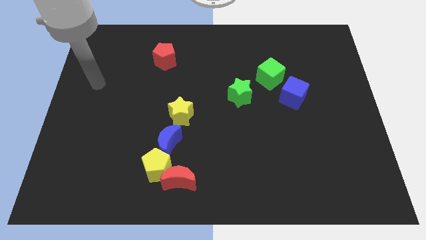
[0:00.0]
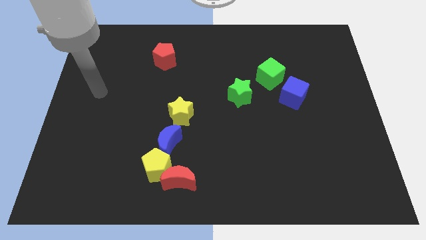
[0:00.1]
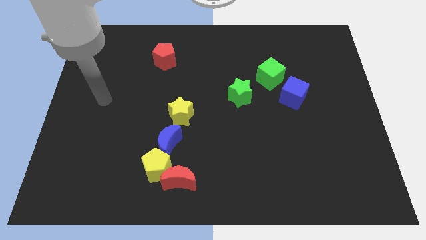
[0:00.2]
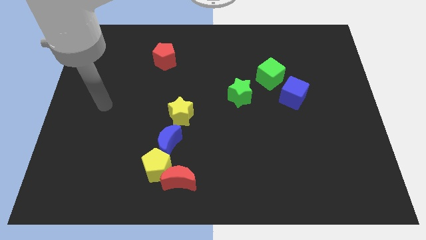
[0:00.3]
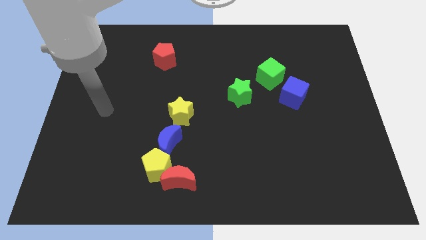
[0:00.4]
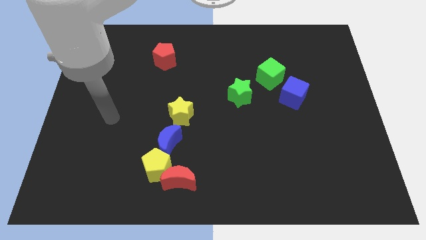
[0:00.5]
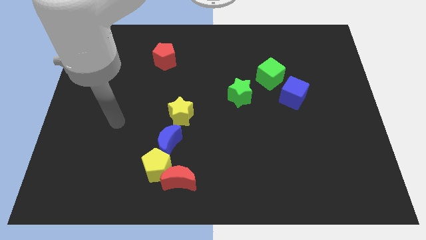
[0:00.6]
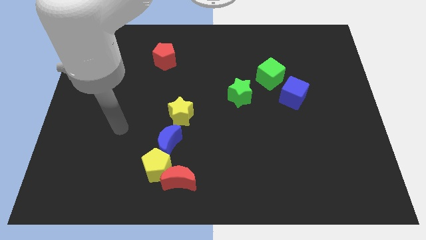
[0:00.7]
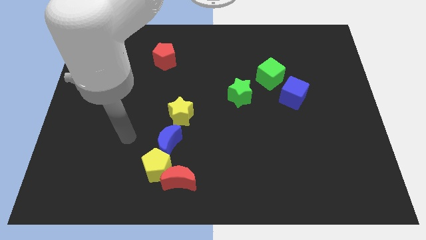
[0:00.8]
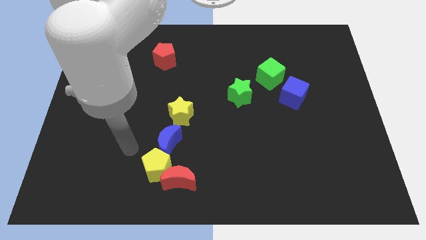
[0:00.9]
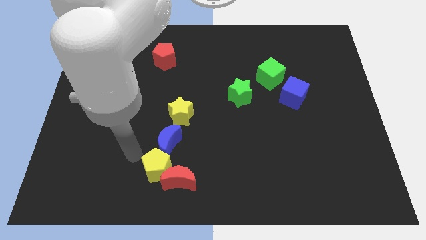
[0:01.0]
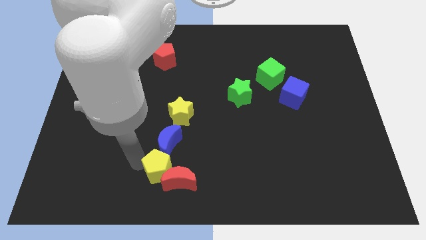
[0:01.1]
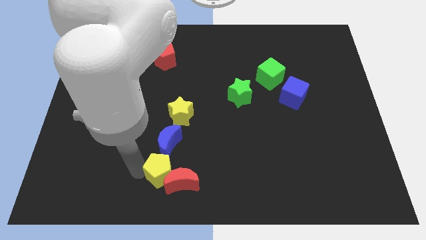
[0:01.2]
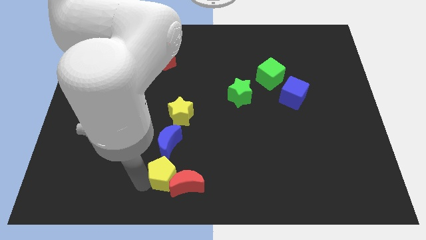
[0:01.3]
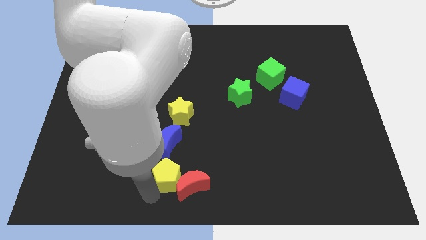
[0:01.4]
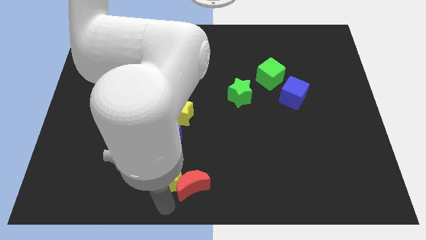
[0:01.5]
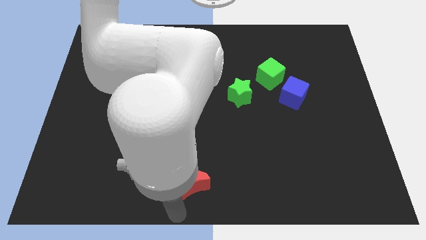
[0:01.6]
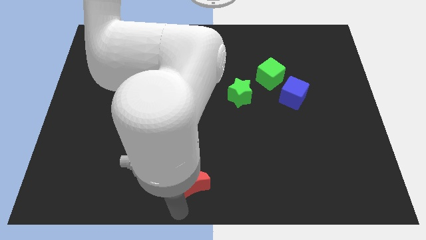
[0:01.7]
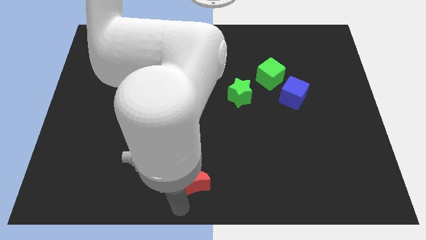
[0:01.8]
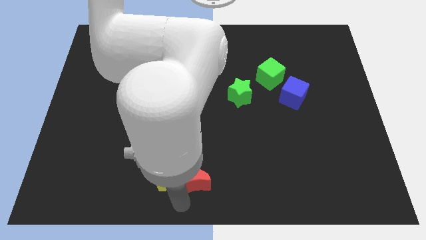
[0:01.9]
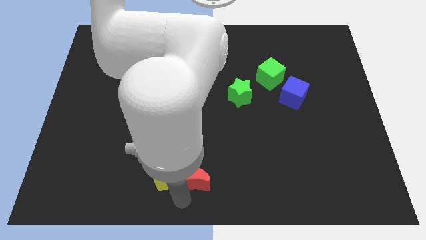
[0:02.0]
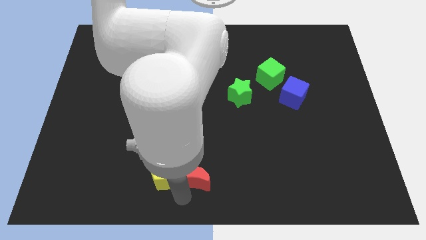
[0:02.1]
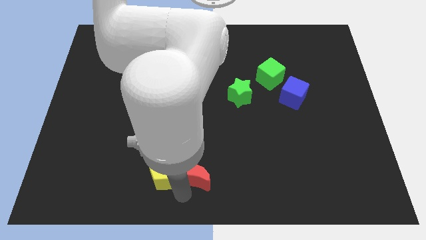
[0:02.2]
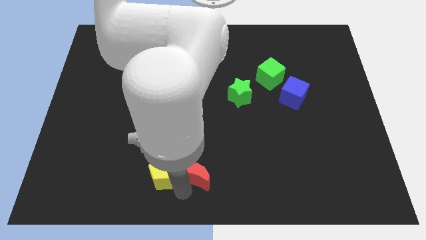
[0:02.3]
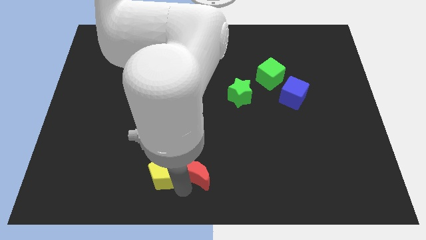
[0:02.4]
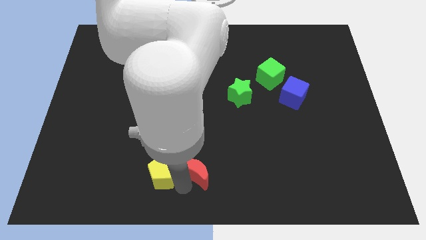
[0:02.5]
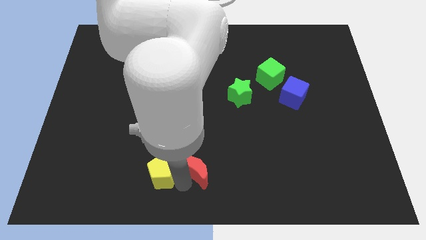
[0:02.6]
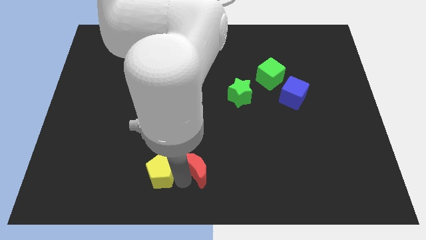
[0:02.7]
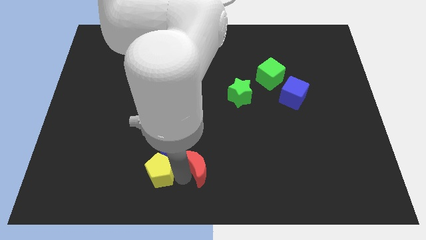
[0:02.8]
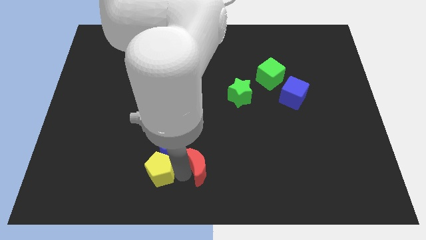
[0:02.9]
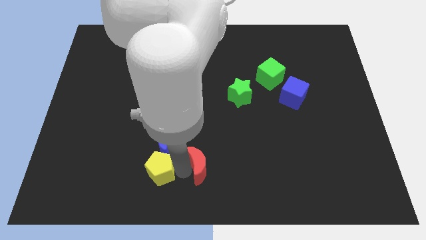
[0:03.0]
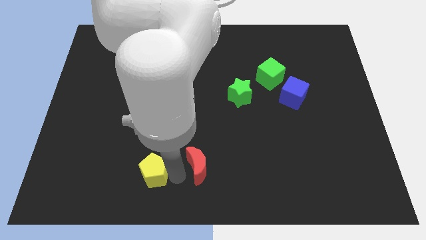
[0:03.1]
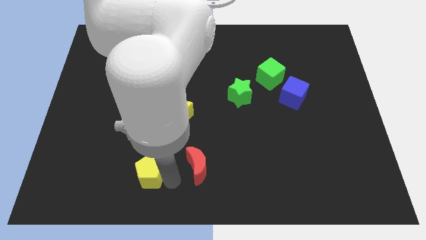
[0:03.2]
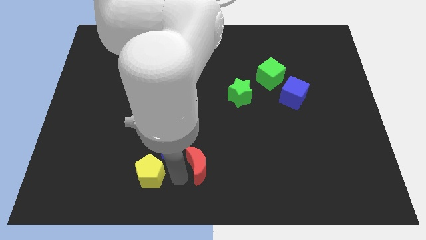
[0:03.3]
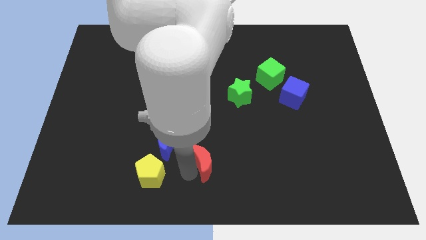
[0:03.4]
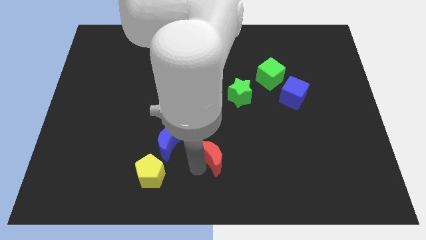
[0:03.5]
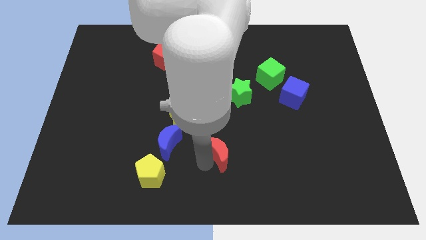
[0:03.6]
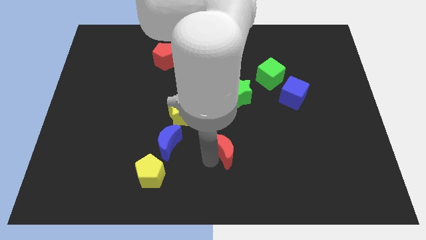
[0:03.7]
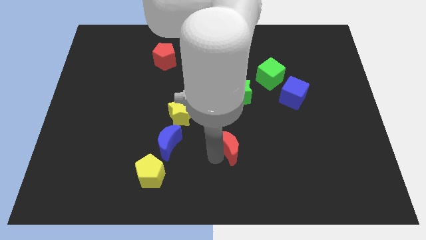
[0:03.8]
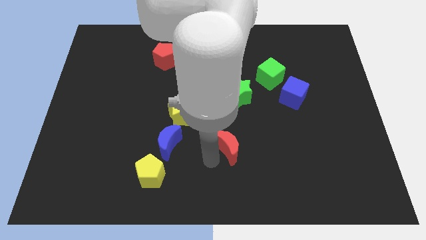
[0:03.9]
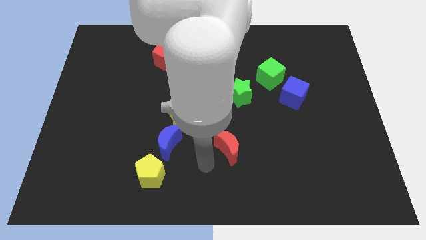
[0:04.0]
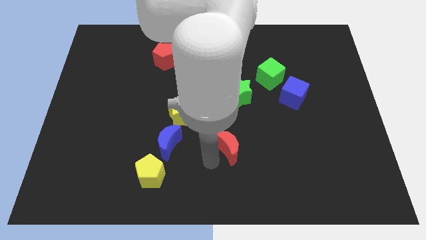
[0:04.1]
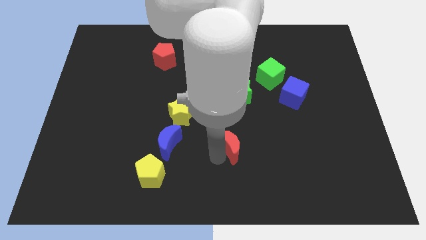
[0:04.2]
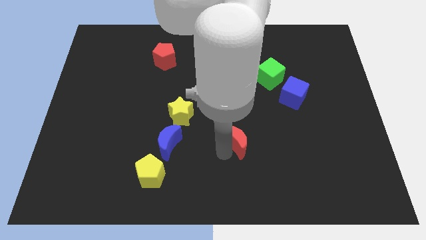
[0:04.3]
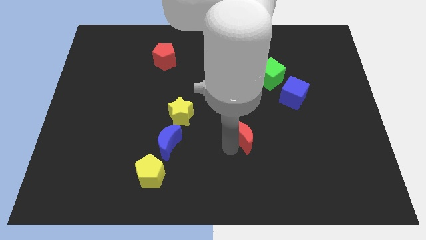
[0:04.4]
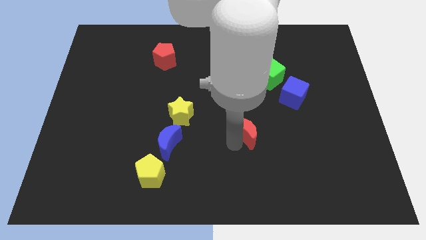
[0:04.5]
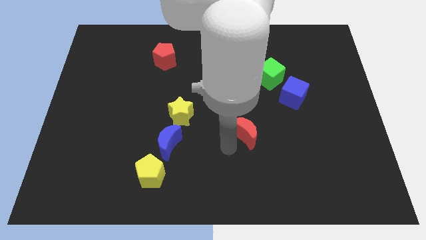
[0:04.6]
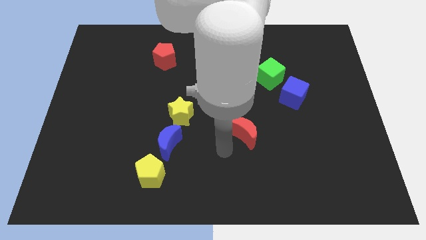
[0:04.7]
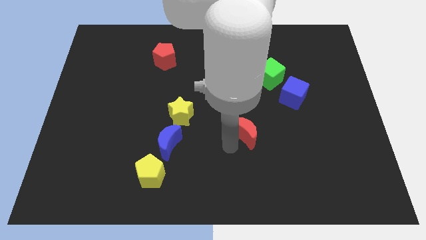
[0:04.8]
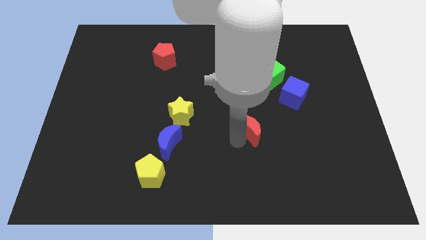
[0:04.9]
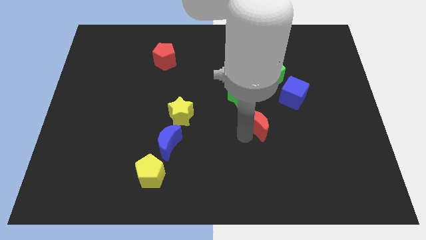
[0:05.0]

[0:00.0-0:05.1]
slide the red moon diagonally down and to the left of the blue cube

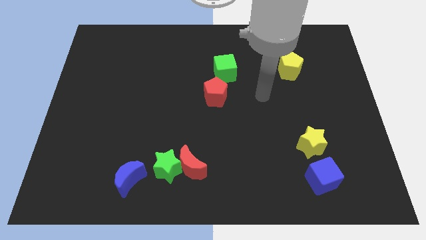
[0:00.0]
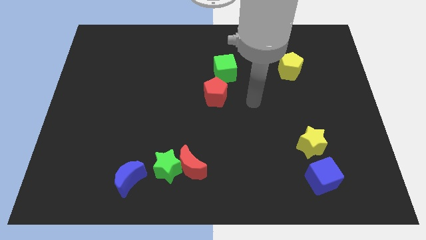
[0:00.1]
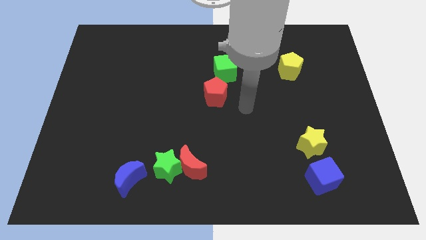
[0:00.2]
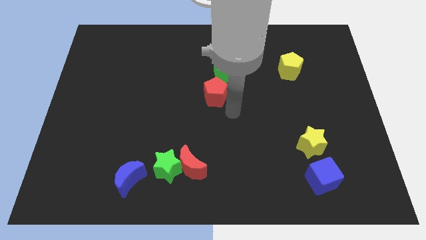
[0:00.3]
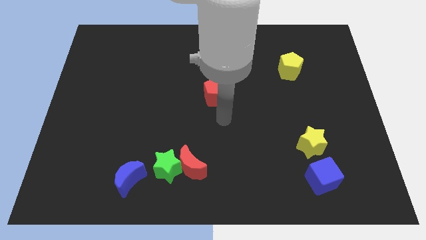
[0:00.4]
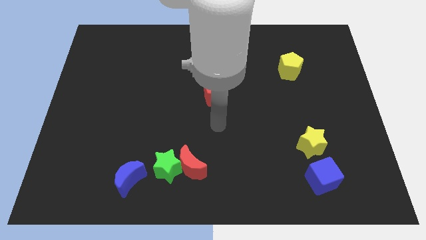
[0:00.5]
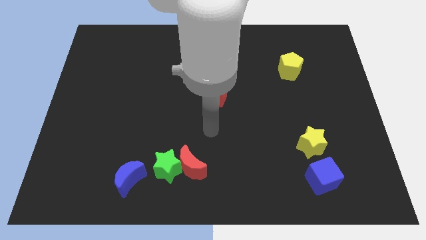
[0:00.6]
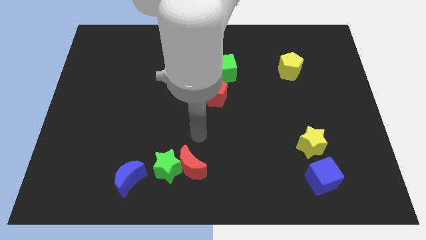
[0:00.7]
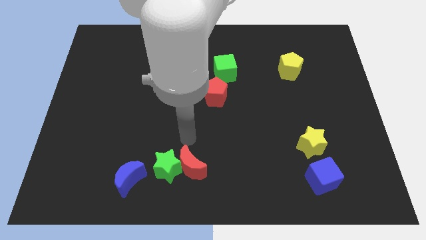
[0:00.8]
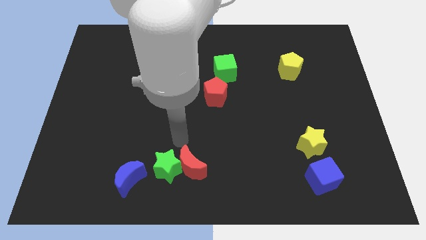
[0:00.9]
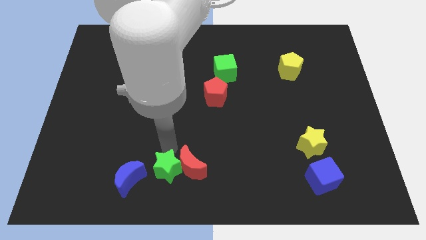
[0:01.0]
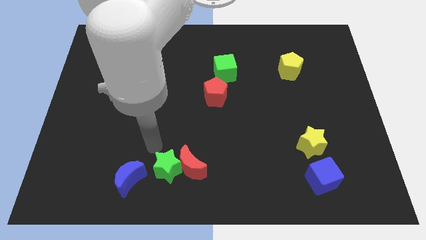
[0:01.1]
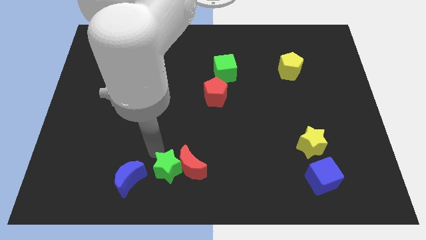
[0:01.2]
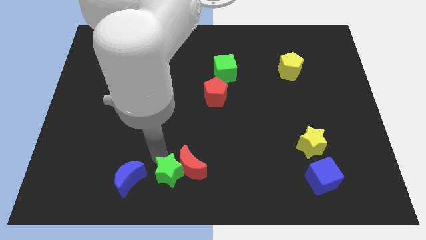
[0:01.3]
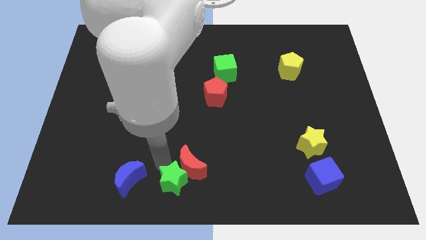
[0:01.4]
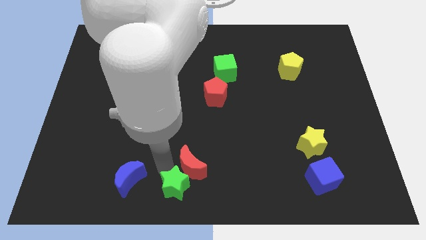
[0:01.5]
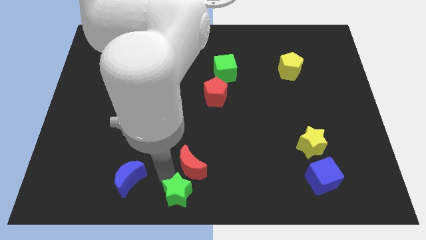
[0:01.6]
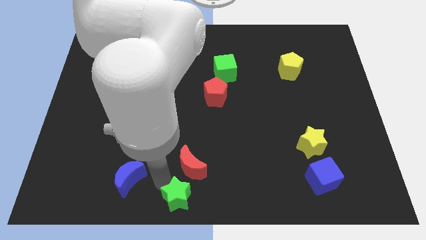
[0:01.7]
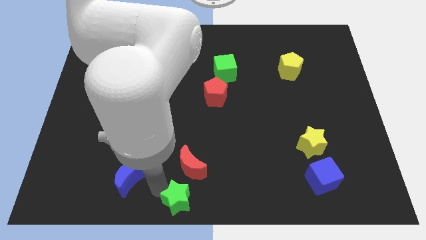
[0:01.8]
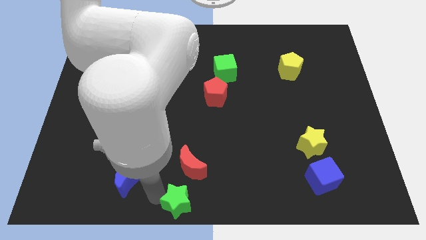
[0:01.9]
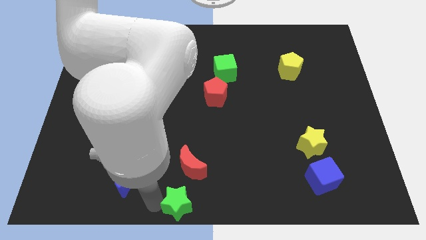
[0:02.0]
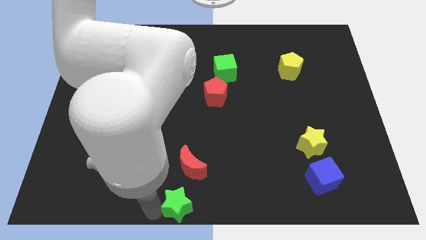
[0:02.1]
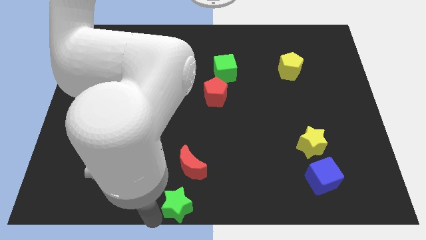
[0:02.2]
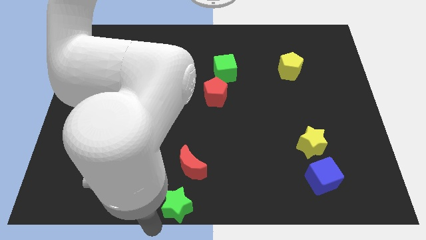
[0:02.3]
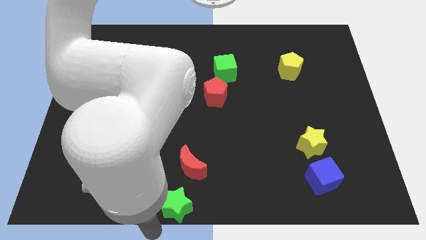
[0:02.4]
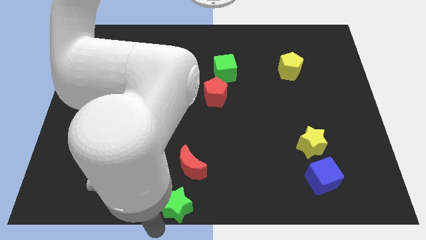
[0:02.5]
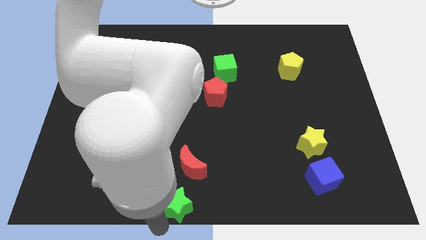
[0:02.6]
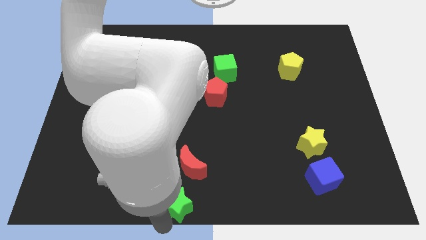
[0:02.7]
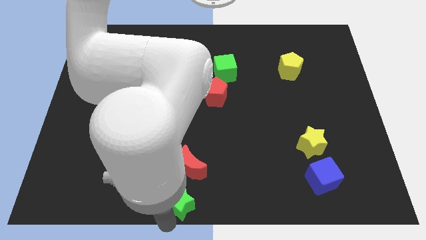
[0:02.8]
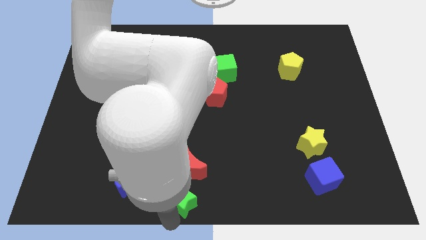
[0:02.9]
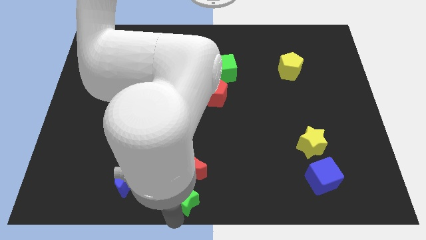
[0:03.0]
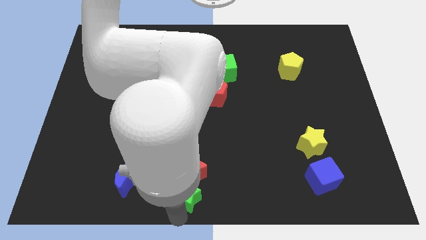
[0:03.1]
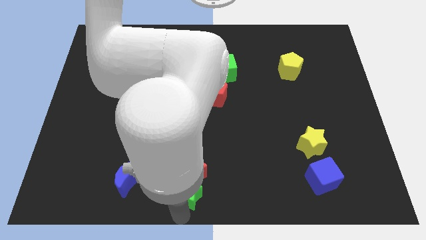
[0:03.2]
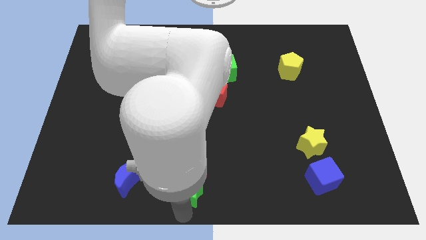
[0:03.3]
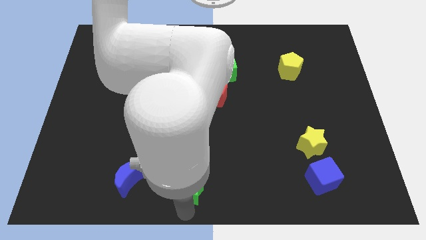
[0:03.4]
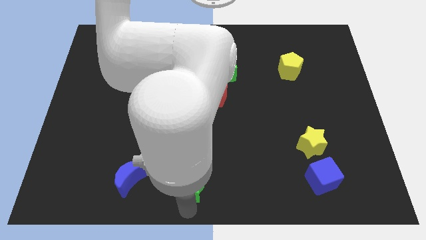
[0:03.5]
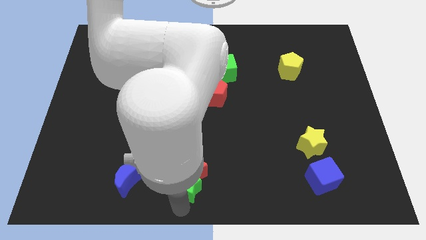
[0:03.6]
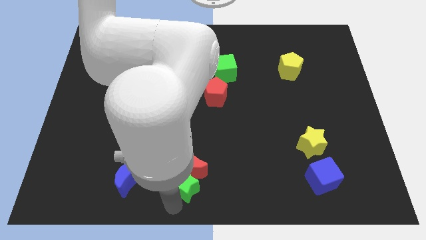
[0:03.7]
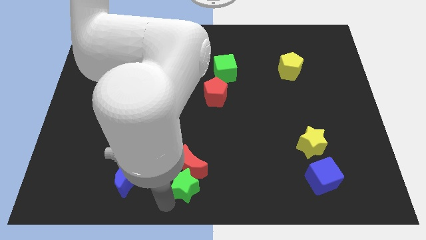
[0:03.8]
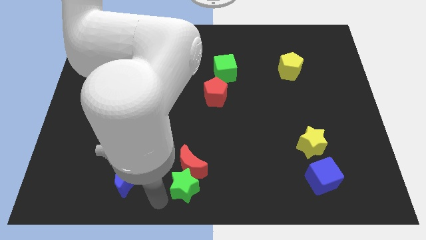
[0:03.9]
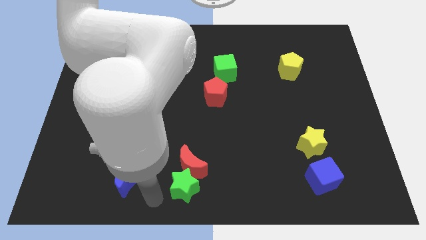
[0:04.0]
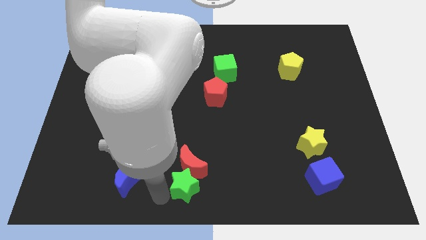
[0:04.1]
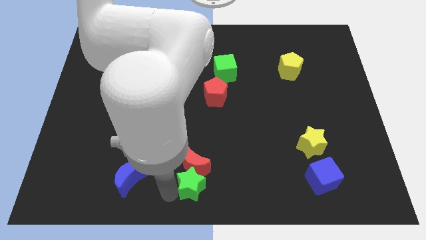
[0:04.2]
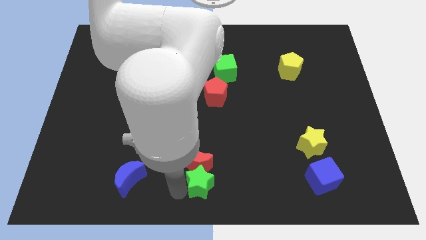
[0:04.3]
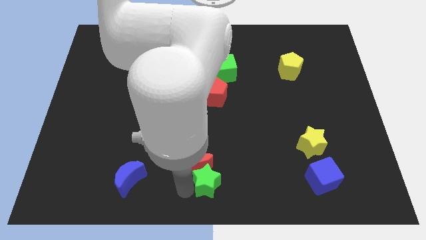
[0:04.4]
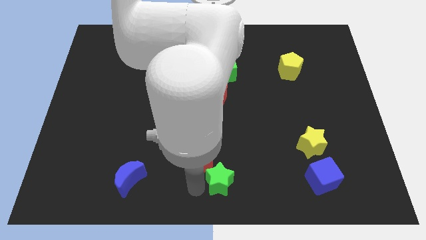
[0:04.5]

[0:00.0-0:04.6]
push the green star to the right of the red moon
